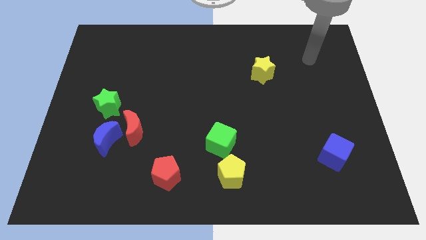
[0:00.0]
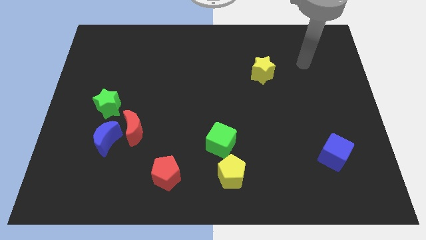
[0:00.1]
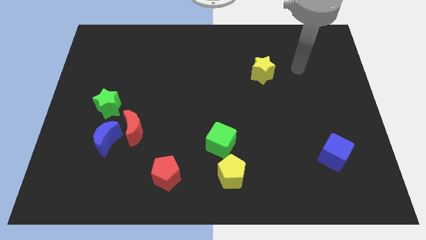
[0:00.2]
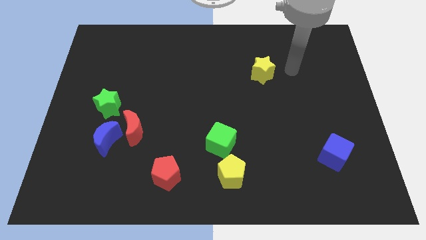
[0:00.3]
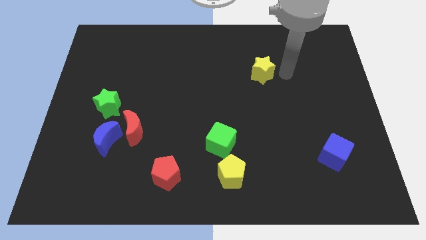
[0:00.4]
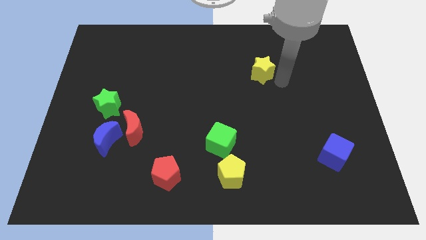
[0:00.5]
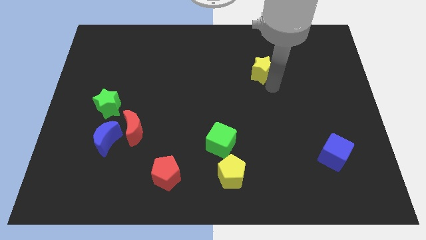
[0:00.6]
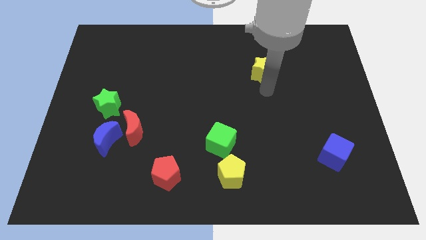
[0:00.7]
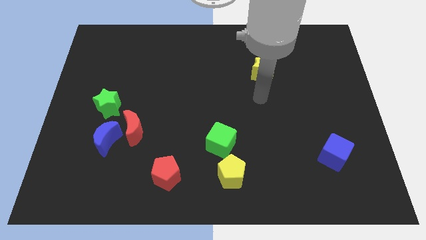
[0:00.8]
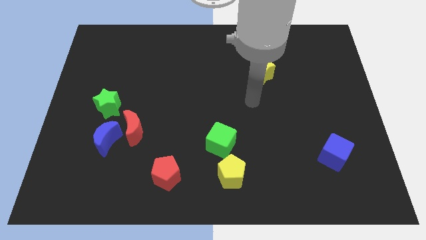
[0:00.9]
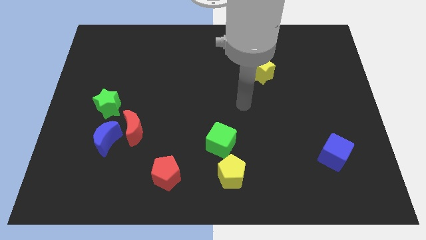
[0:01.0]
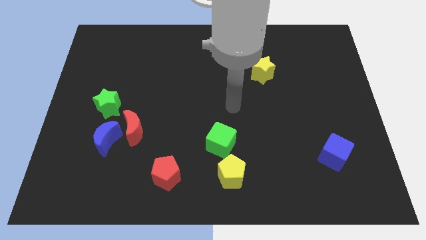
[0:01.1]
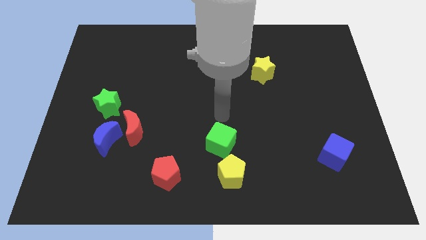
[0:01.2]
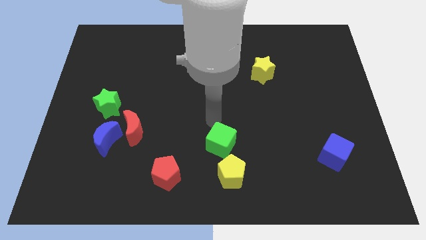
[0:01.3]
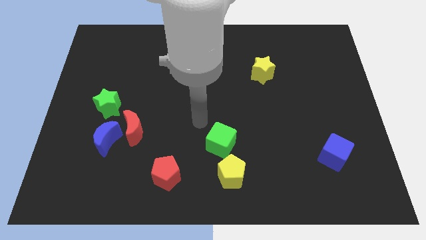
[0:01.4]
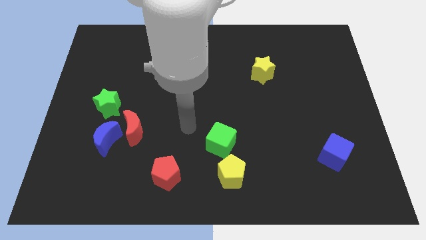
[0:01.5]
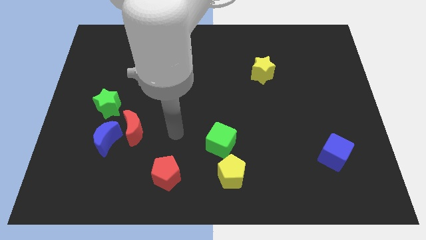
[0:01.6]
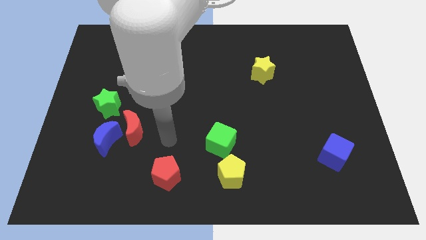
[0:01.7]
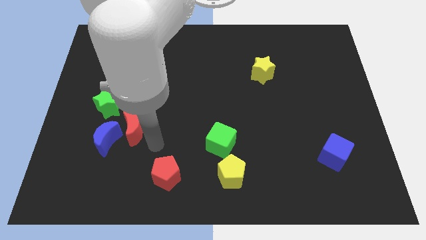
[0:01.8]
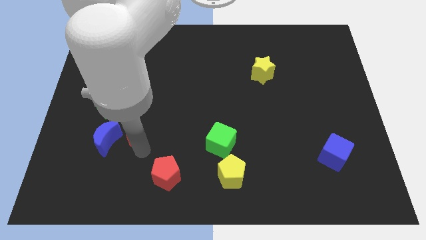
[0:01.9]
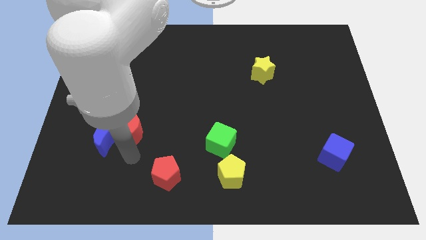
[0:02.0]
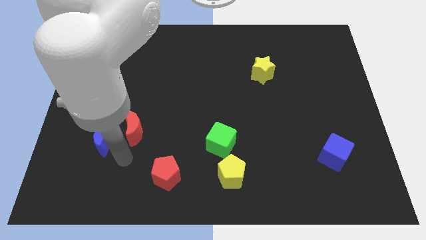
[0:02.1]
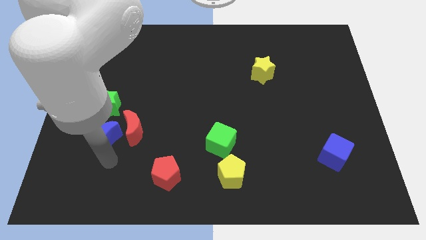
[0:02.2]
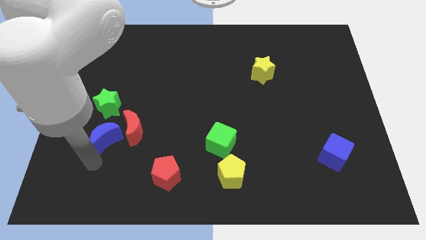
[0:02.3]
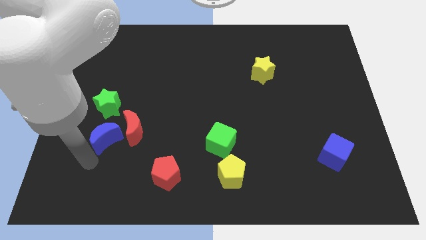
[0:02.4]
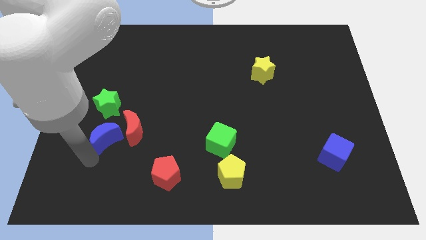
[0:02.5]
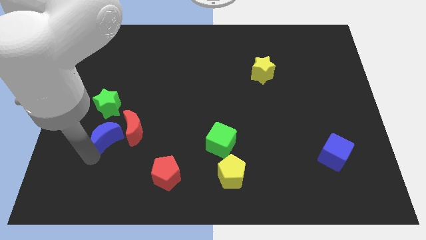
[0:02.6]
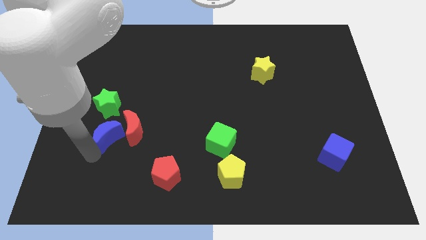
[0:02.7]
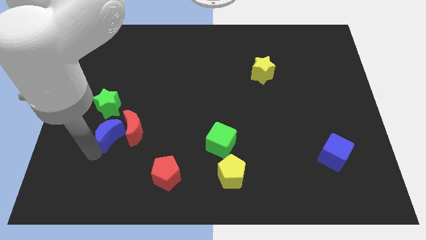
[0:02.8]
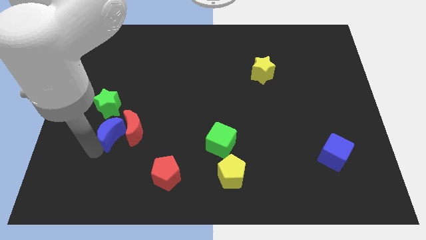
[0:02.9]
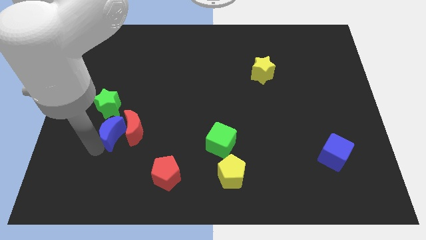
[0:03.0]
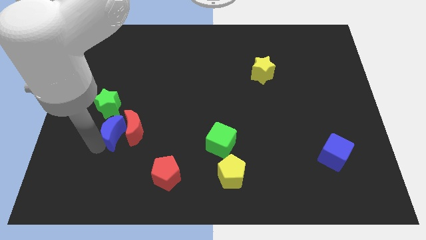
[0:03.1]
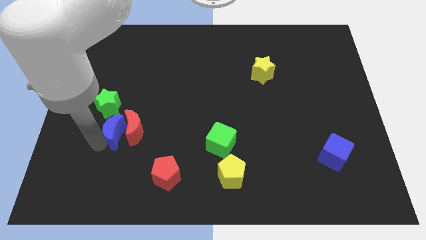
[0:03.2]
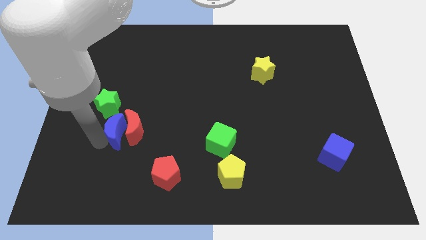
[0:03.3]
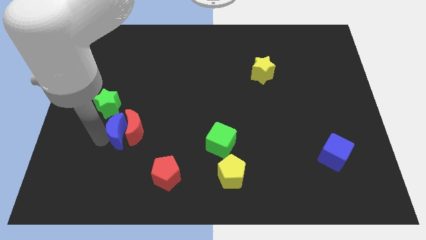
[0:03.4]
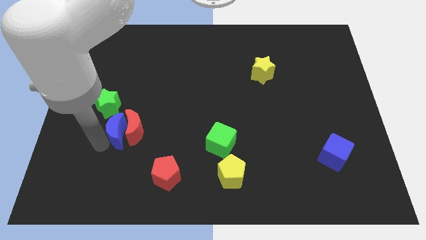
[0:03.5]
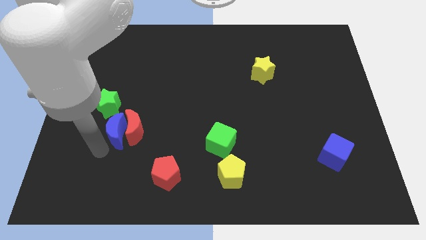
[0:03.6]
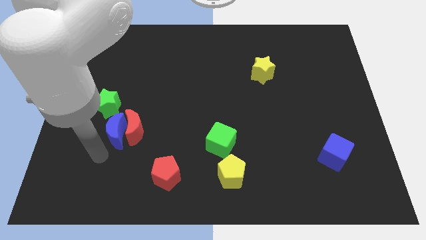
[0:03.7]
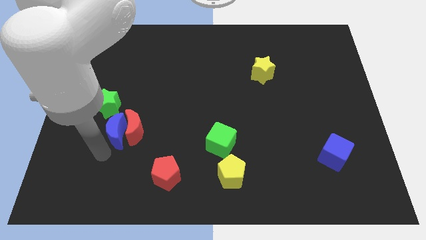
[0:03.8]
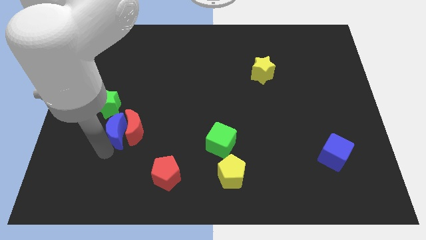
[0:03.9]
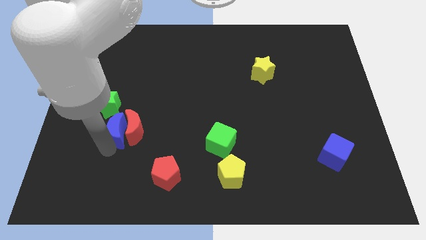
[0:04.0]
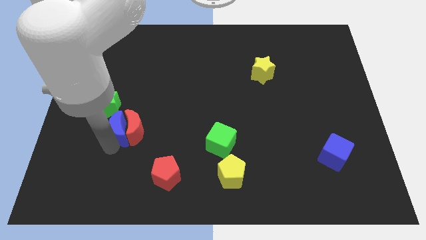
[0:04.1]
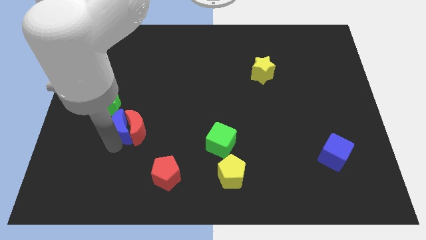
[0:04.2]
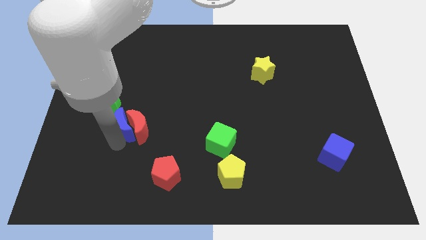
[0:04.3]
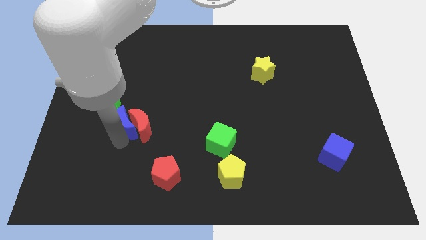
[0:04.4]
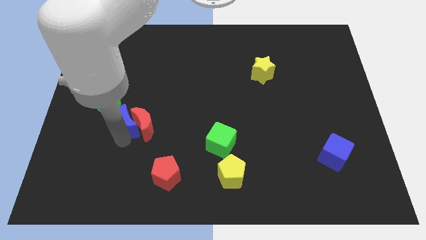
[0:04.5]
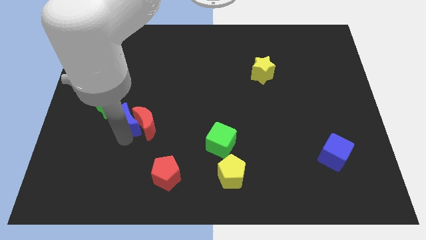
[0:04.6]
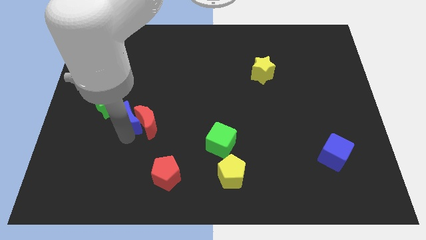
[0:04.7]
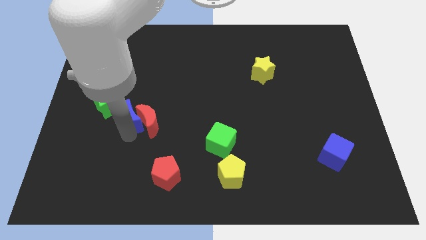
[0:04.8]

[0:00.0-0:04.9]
slightly push the blue moon up and to the right

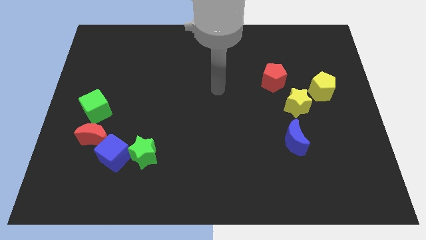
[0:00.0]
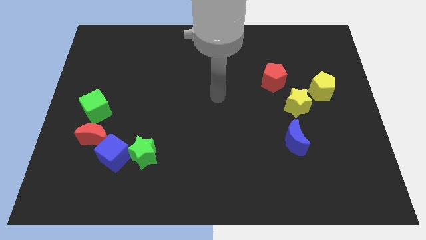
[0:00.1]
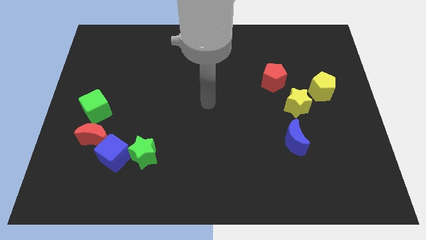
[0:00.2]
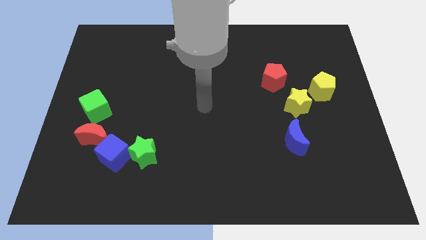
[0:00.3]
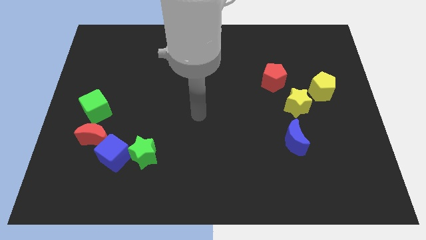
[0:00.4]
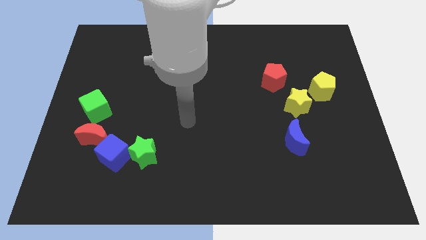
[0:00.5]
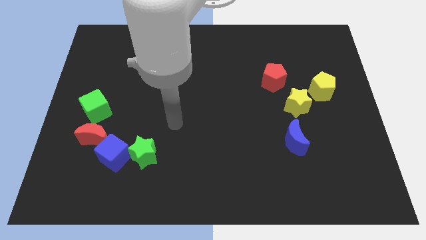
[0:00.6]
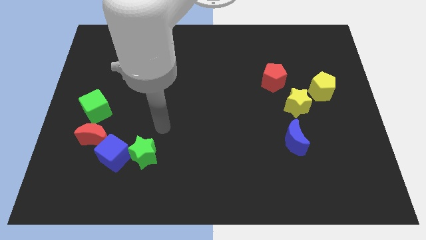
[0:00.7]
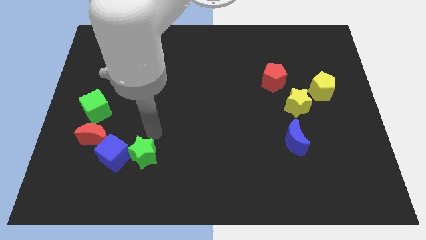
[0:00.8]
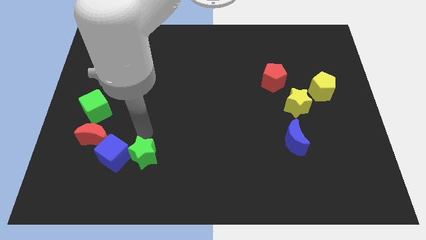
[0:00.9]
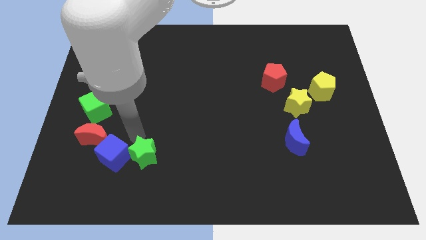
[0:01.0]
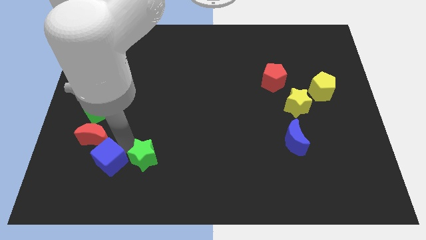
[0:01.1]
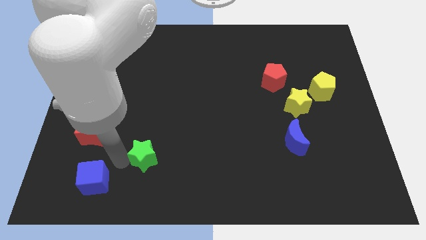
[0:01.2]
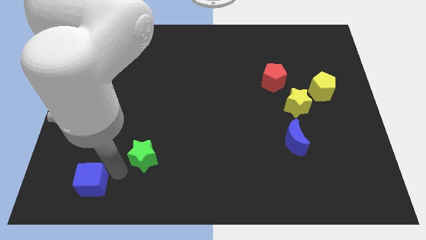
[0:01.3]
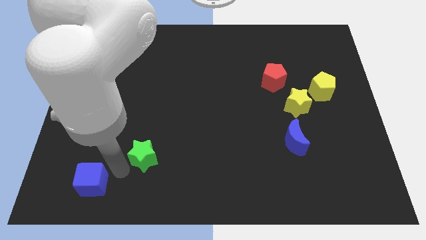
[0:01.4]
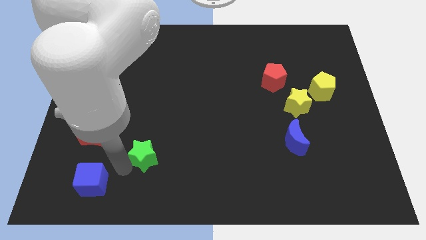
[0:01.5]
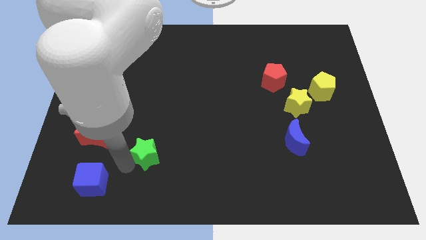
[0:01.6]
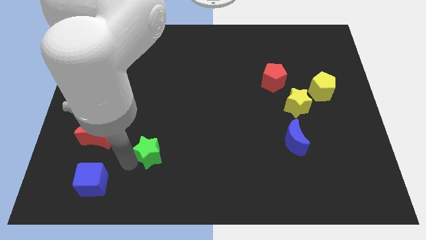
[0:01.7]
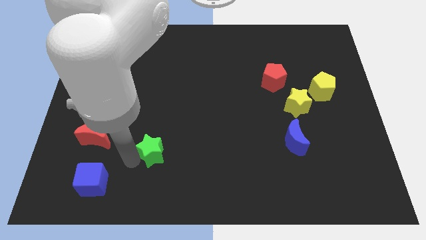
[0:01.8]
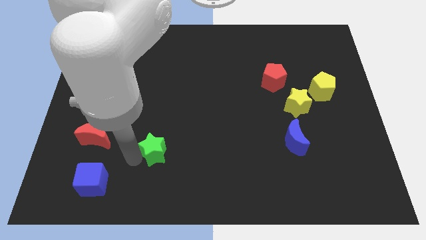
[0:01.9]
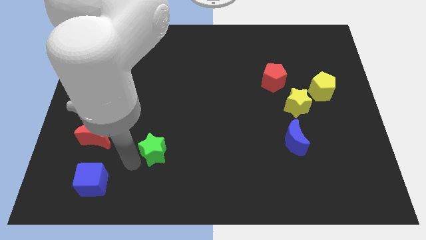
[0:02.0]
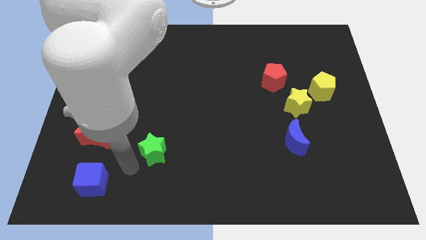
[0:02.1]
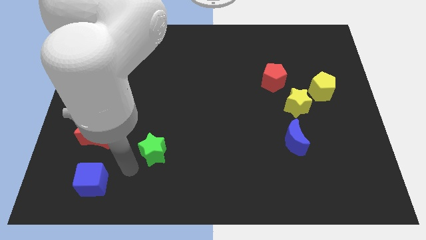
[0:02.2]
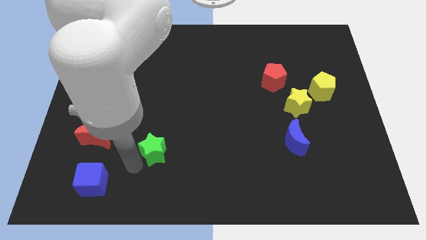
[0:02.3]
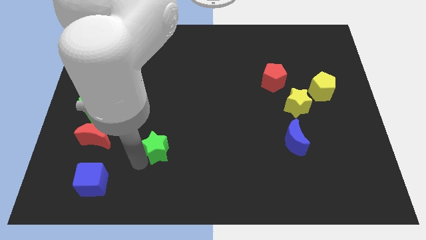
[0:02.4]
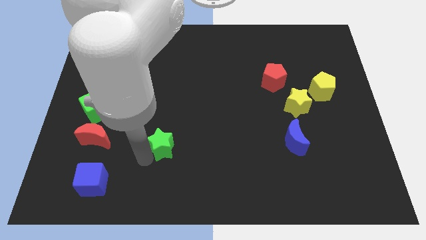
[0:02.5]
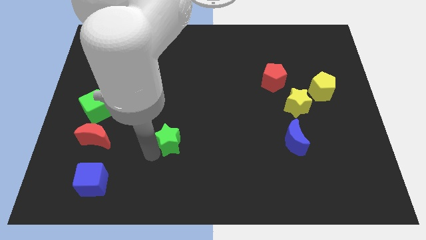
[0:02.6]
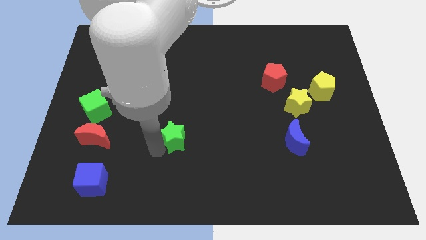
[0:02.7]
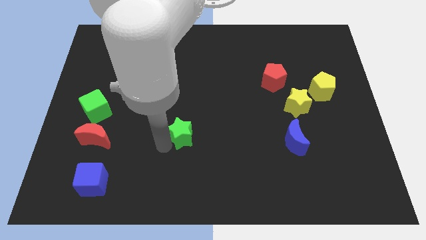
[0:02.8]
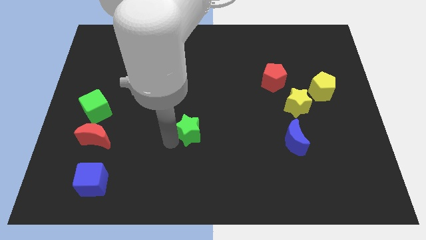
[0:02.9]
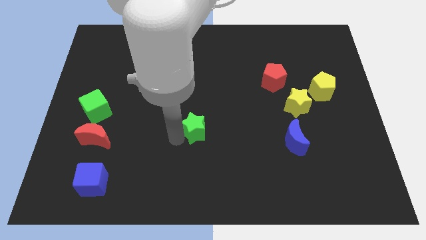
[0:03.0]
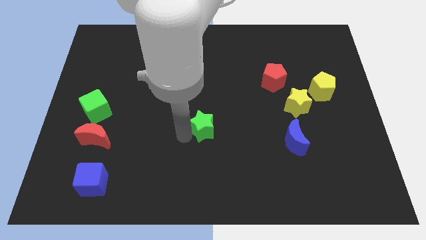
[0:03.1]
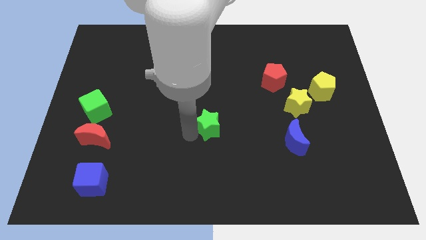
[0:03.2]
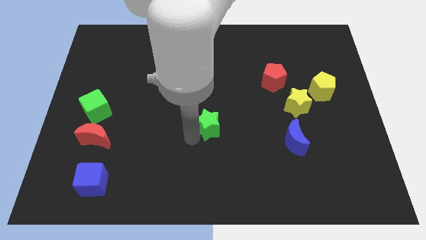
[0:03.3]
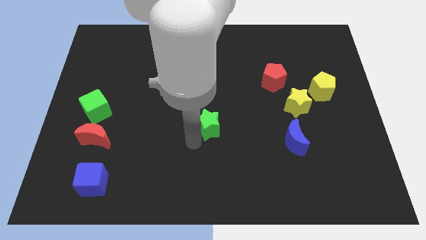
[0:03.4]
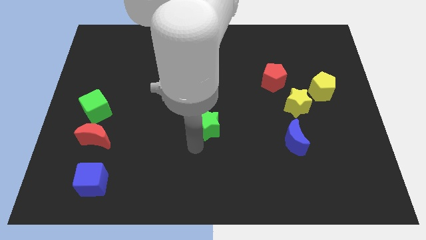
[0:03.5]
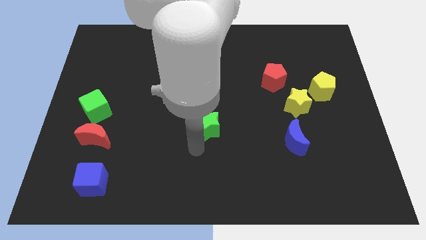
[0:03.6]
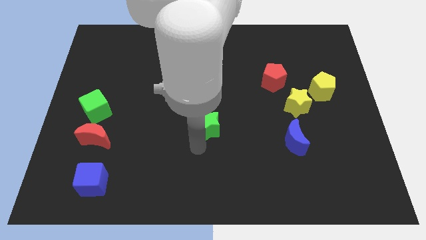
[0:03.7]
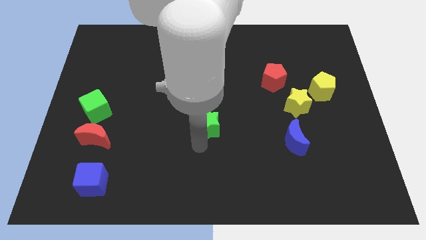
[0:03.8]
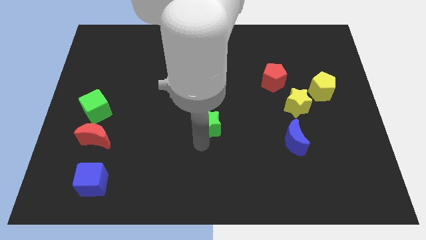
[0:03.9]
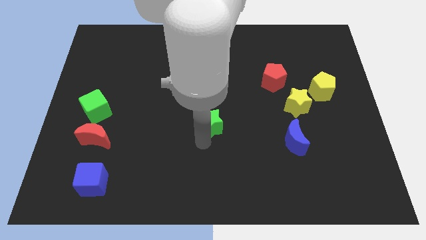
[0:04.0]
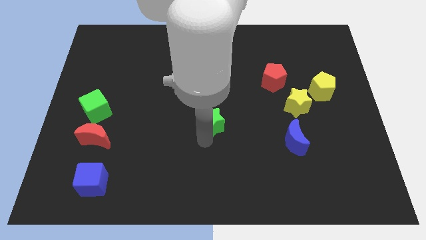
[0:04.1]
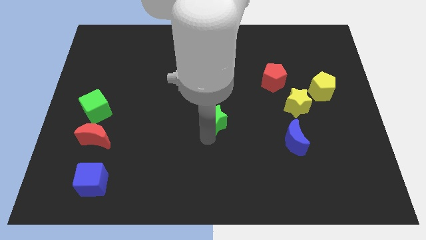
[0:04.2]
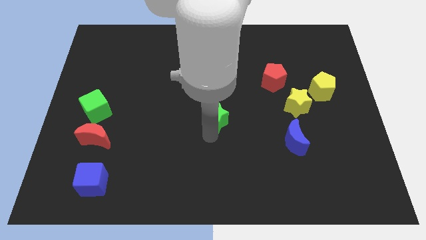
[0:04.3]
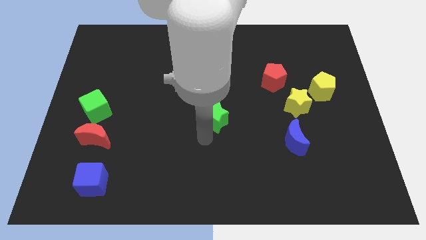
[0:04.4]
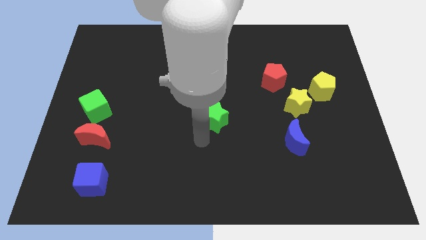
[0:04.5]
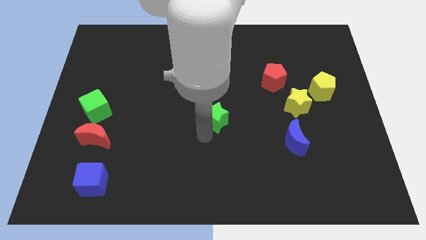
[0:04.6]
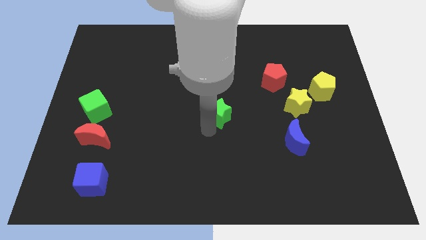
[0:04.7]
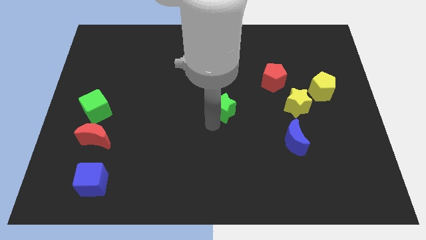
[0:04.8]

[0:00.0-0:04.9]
push the green star upwards and right diagonally
